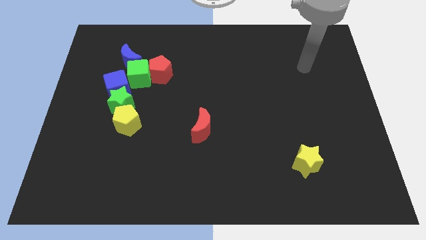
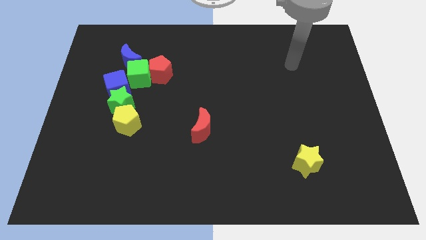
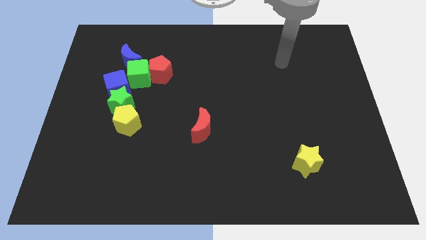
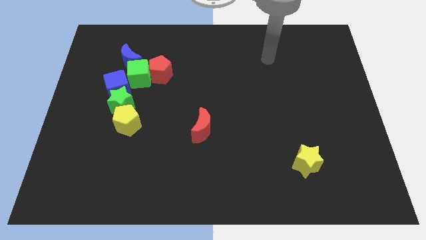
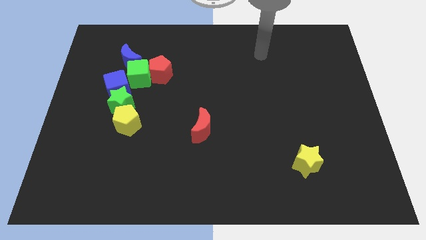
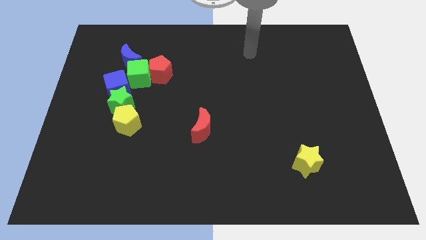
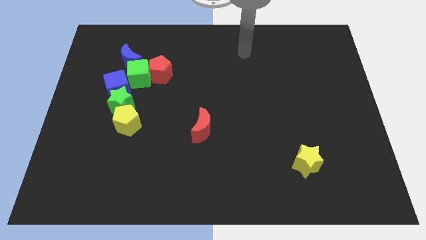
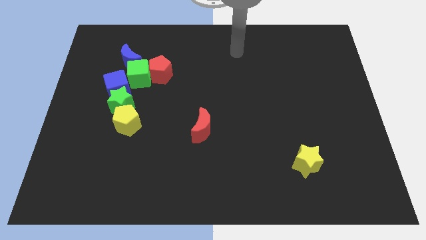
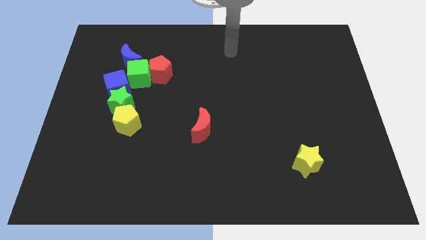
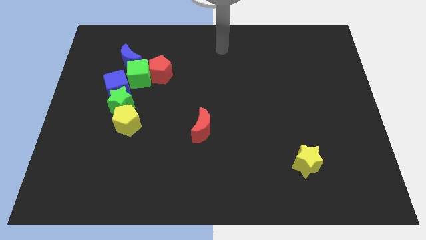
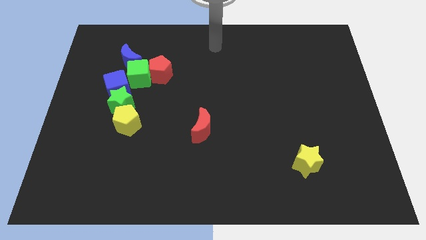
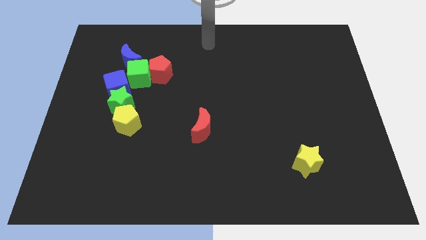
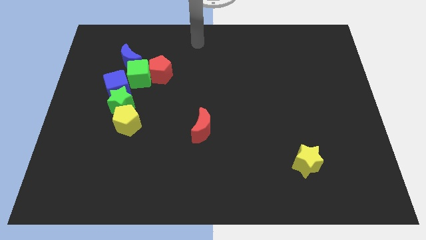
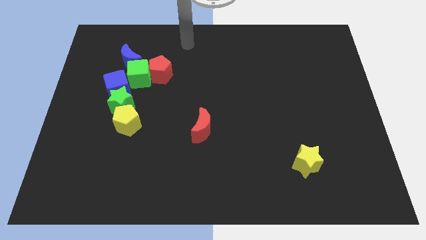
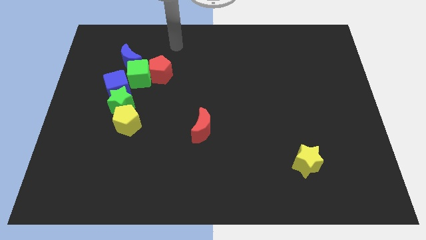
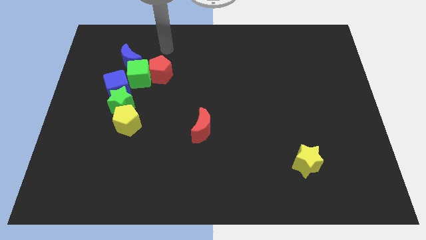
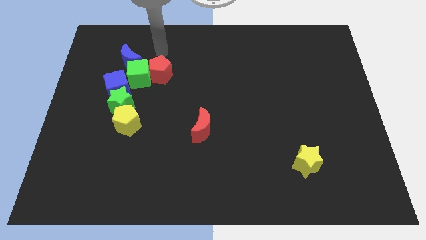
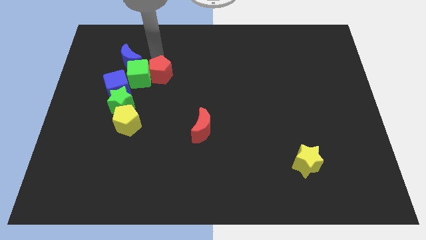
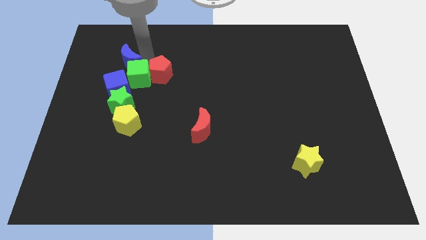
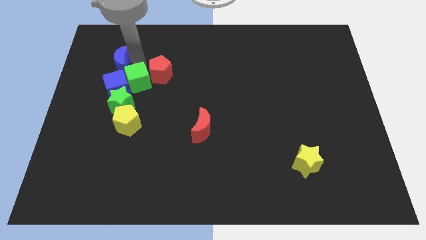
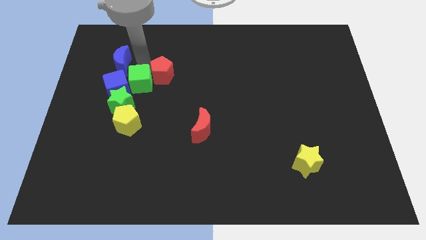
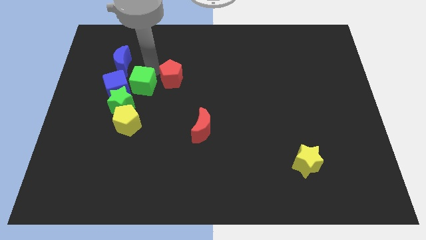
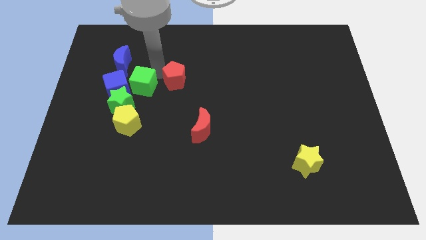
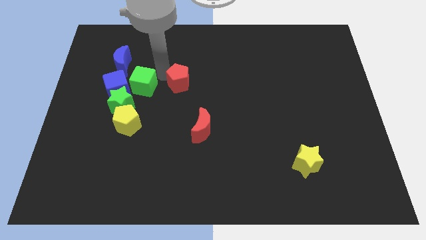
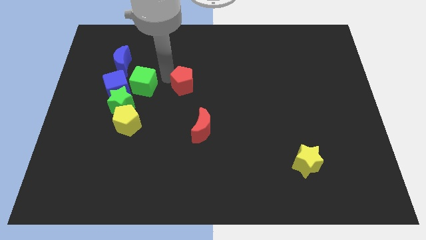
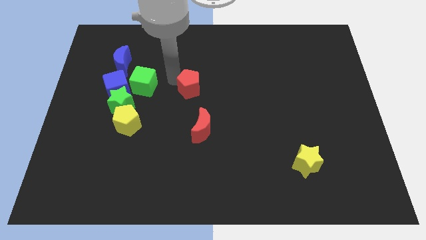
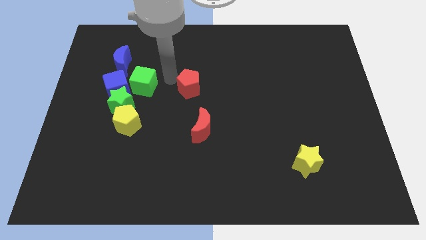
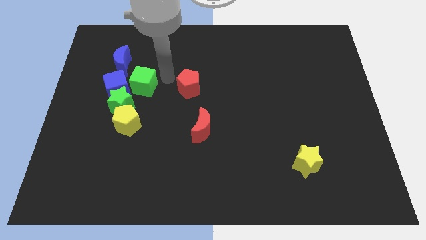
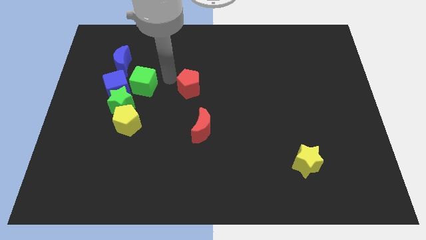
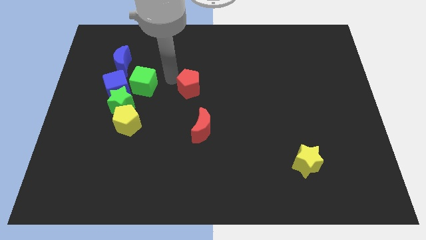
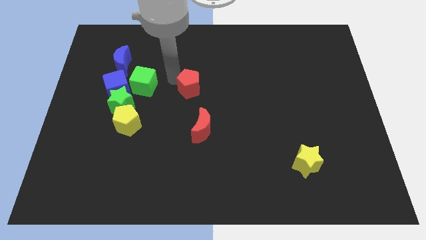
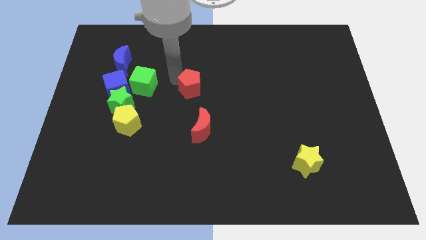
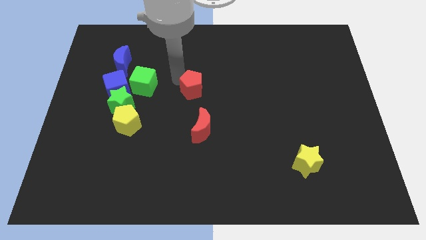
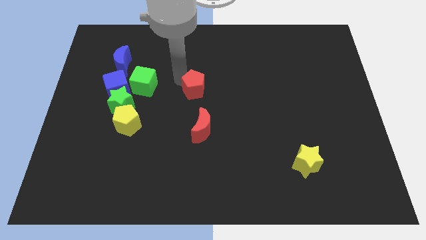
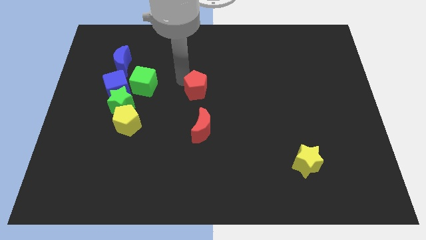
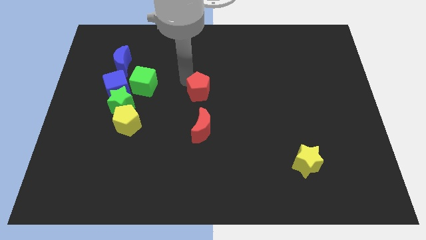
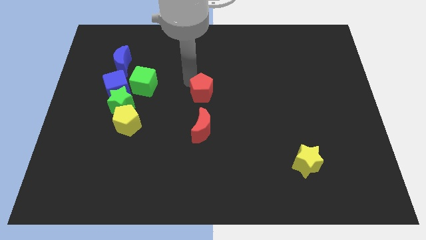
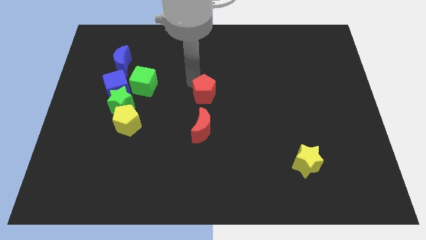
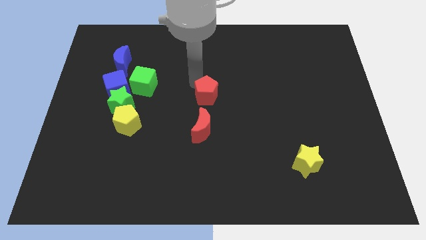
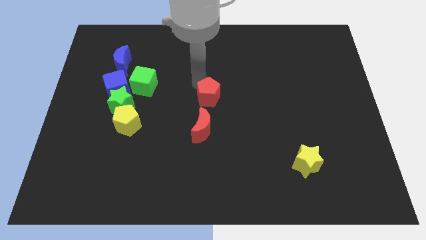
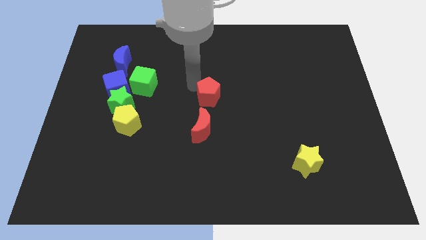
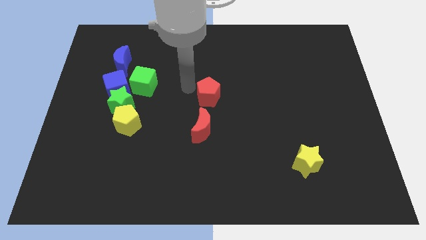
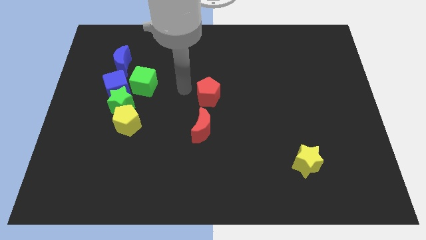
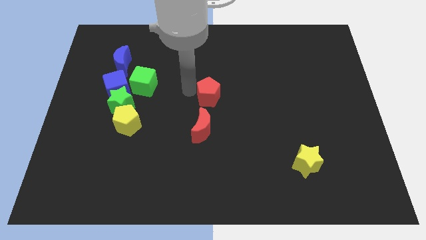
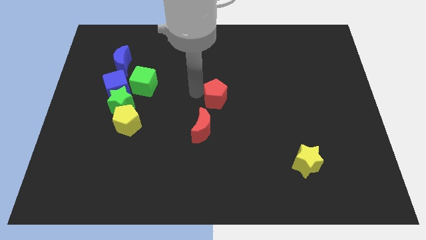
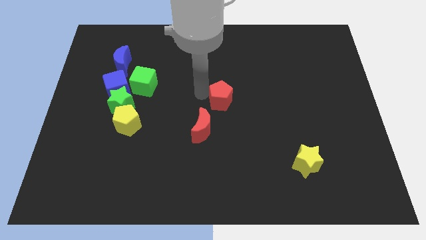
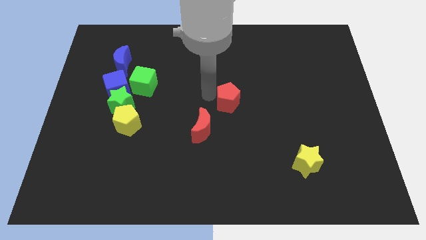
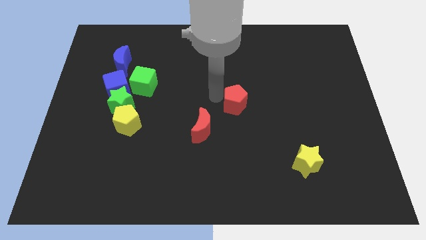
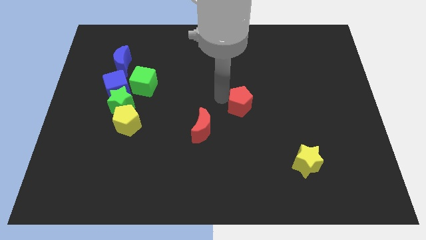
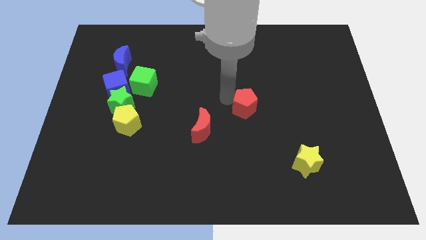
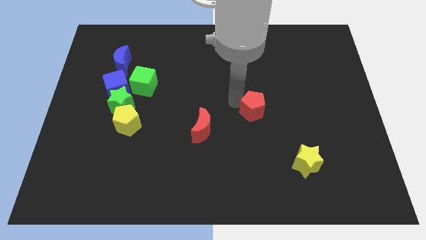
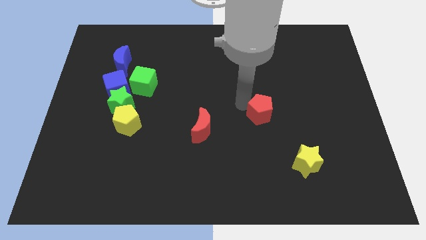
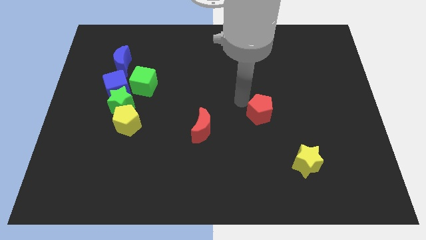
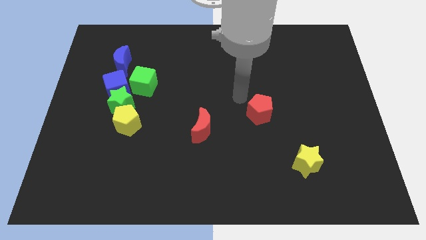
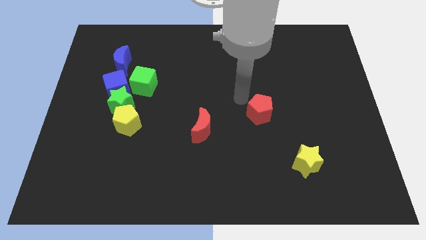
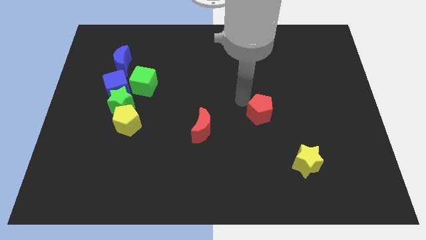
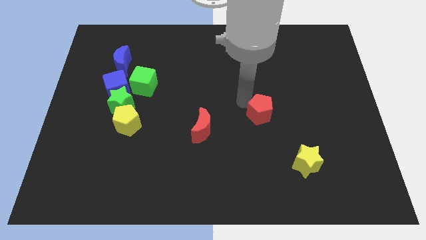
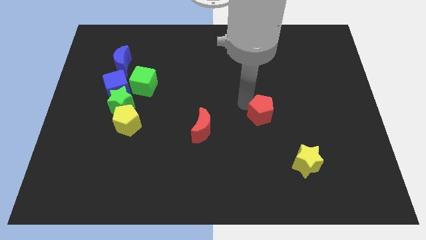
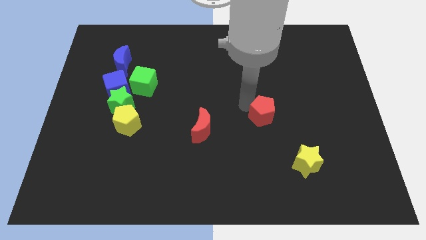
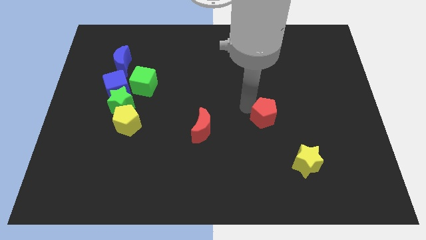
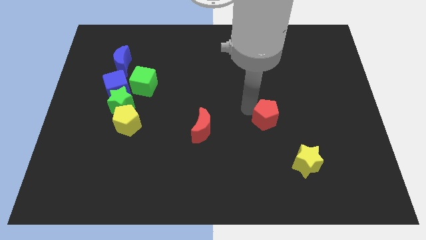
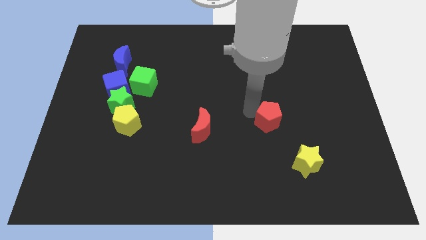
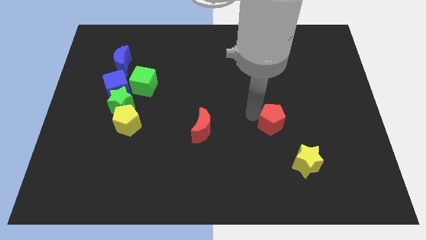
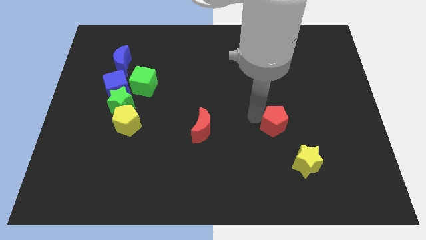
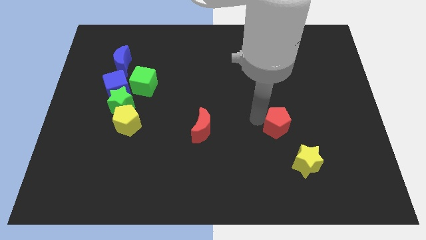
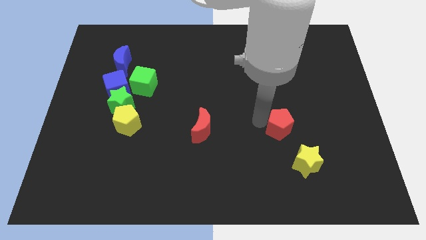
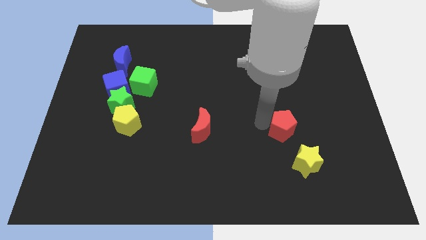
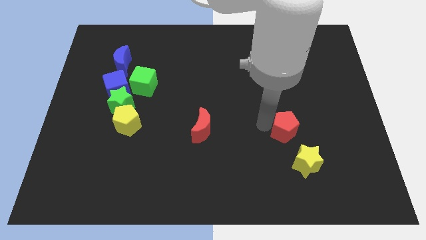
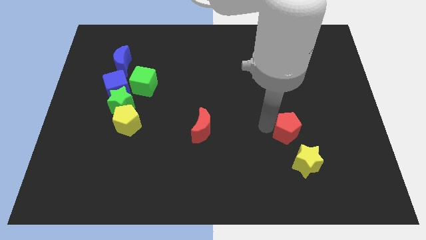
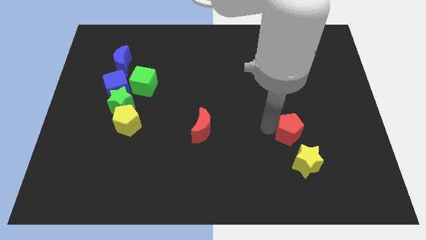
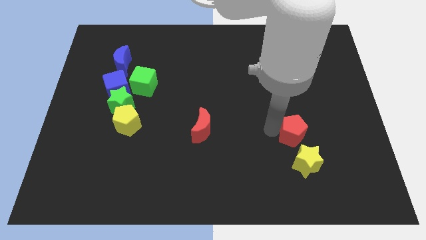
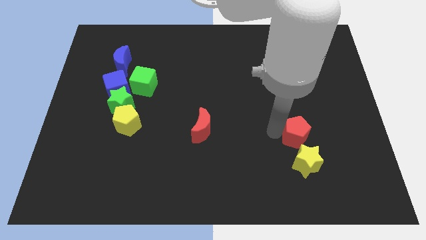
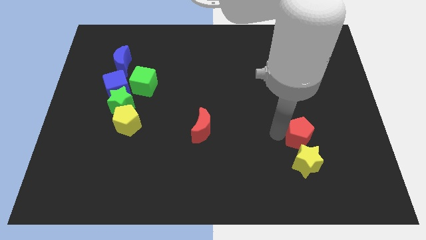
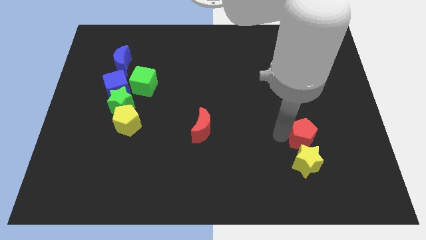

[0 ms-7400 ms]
put the red pentagon diagonally up and to the right of the yellow star

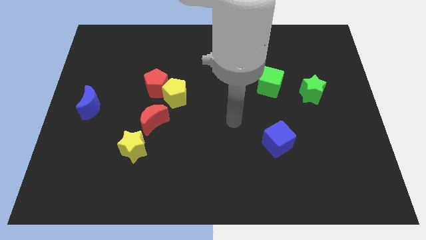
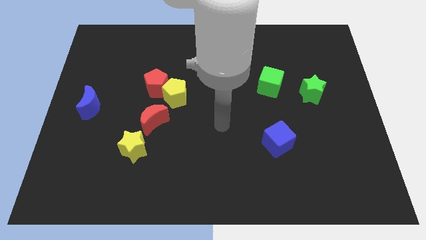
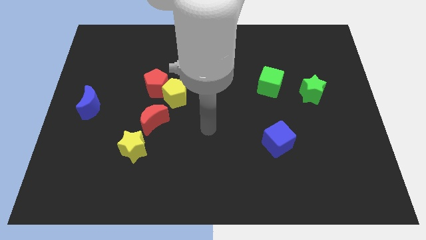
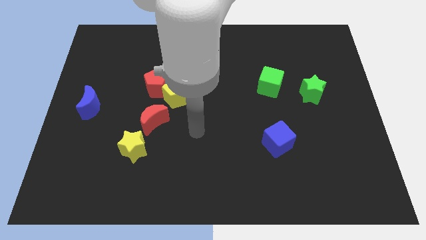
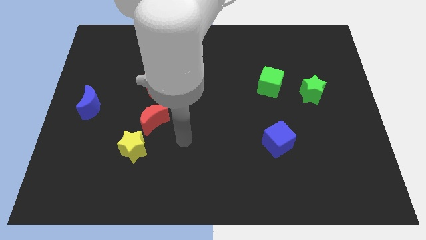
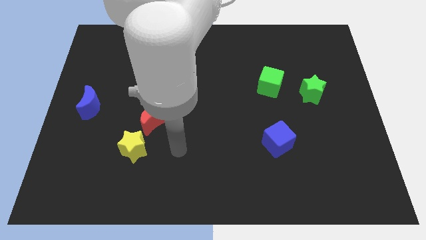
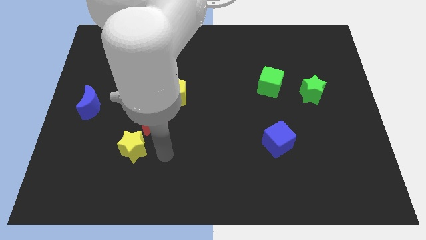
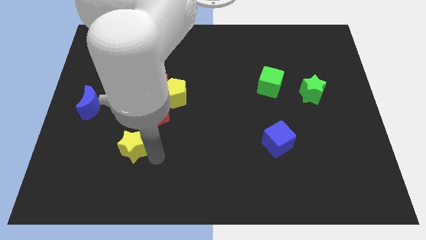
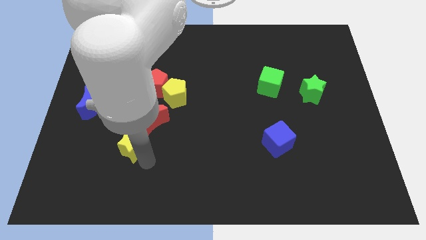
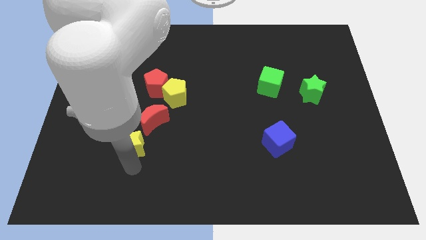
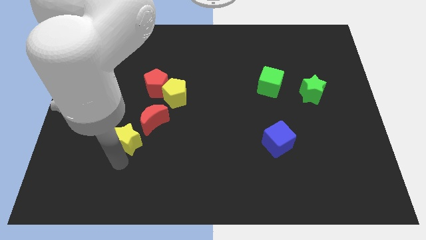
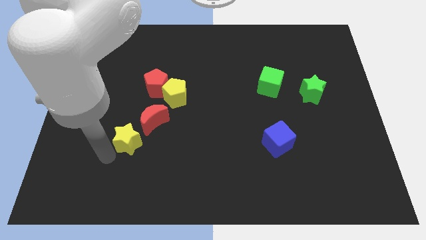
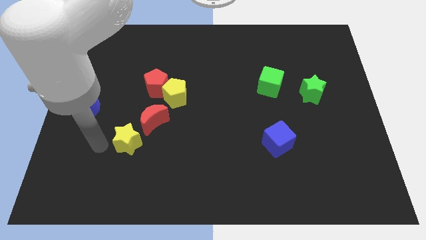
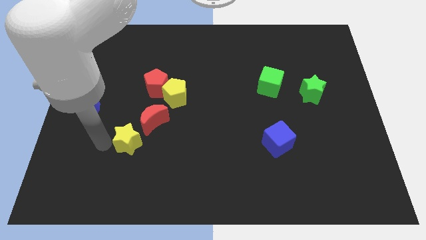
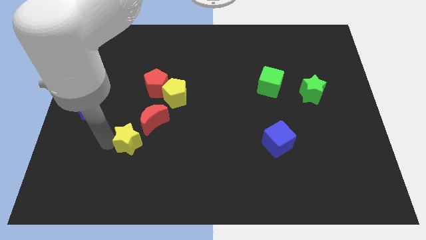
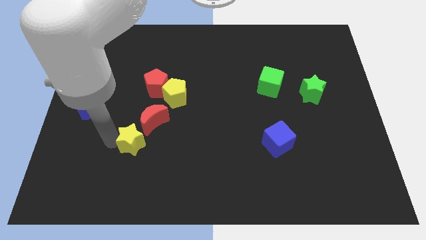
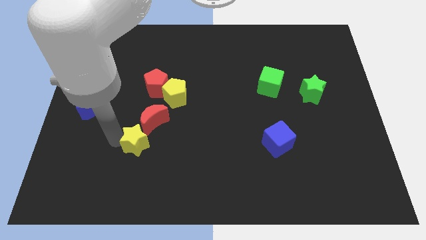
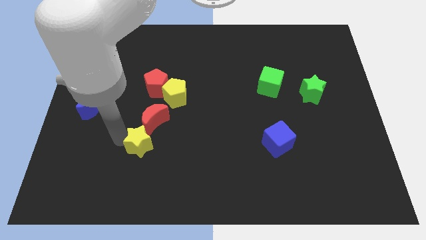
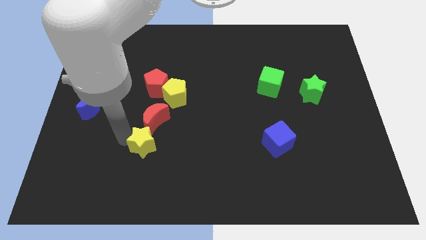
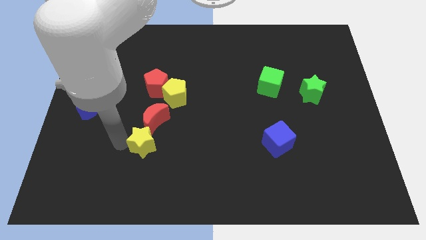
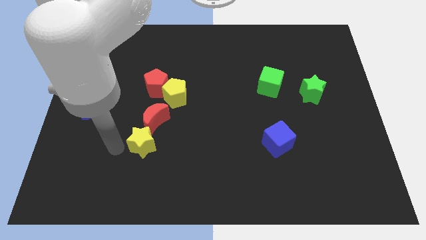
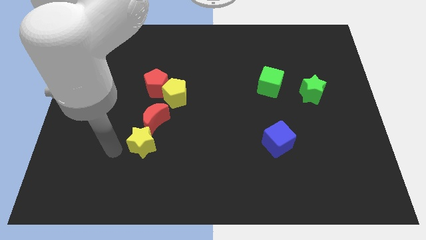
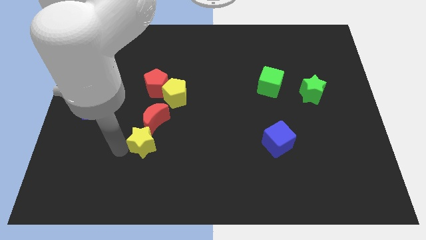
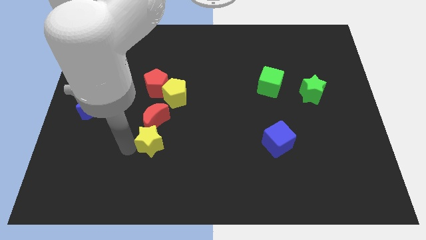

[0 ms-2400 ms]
move the yellow star to the bottom right side of the red moon
